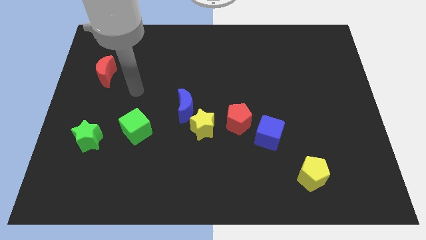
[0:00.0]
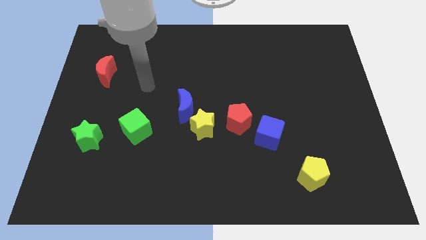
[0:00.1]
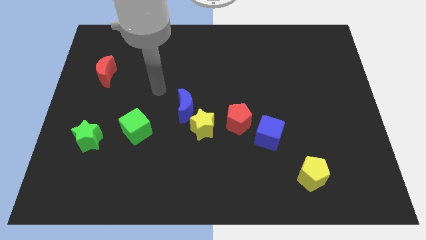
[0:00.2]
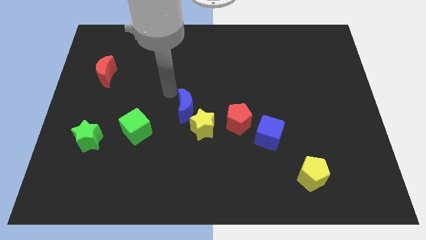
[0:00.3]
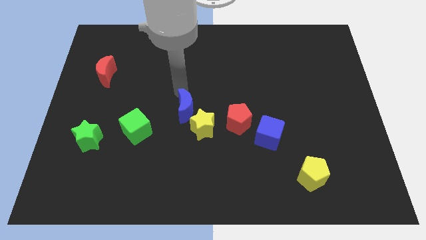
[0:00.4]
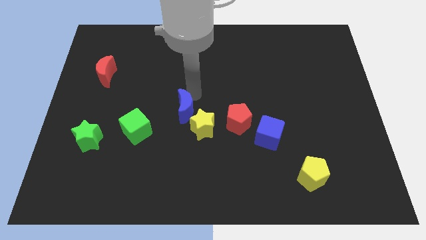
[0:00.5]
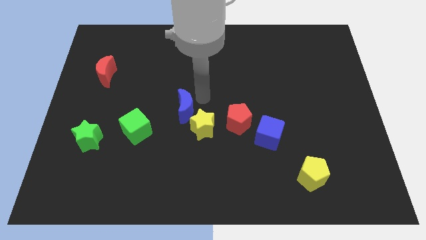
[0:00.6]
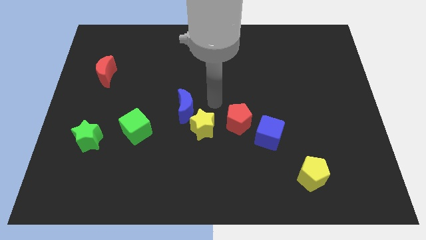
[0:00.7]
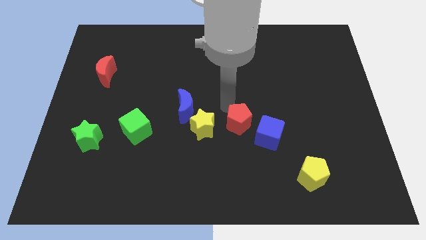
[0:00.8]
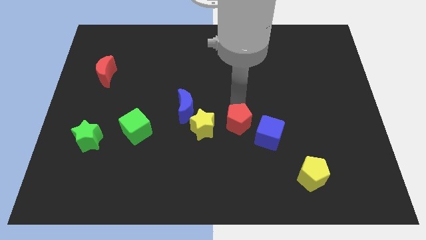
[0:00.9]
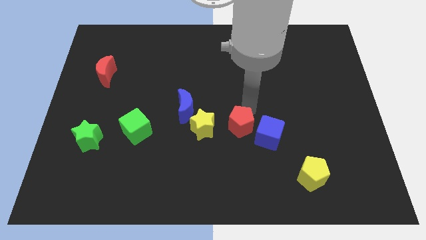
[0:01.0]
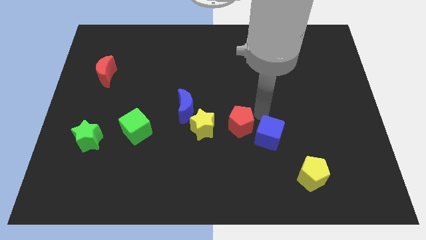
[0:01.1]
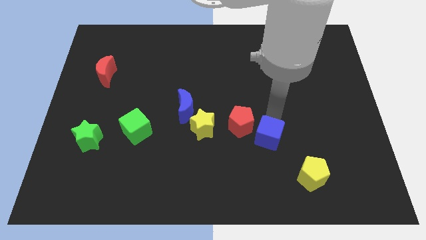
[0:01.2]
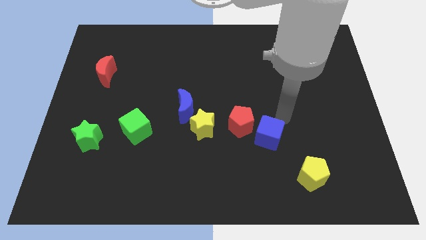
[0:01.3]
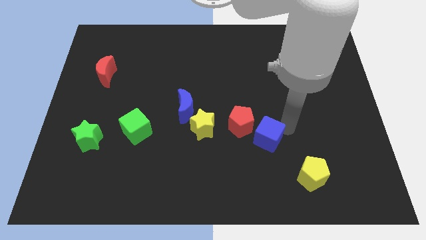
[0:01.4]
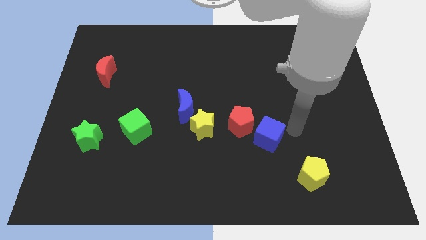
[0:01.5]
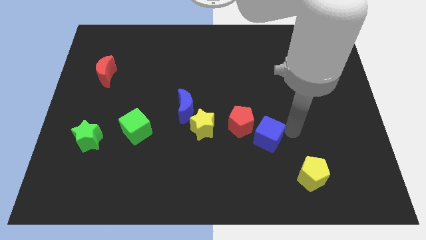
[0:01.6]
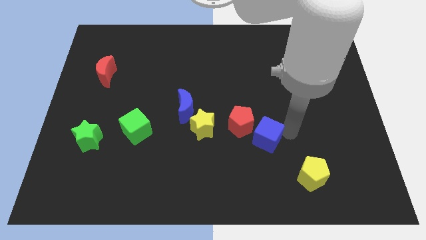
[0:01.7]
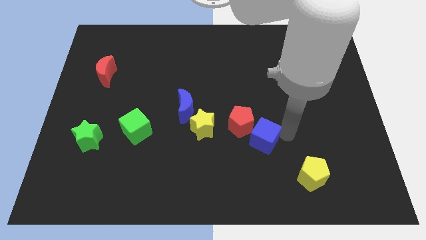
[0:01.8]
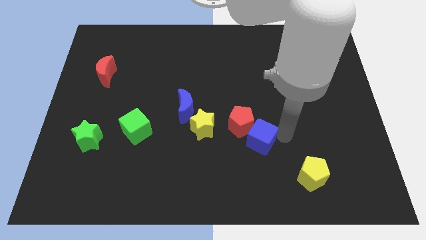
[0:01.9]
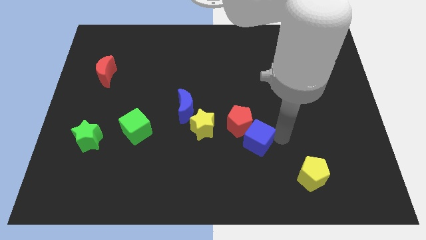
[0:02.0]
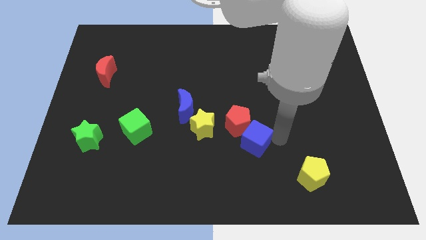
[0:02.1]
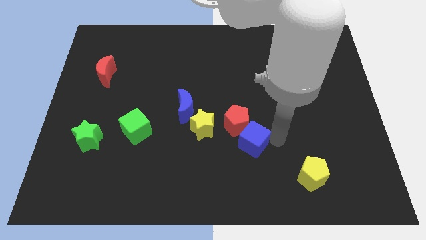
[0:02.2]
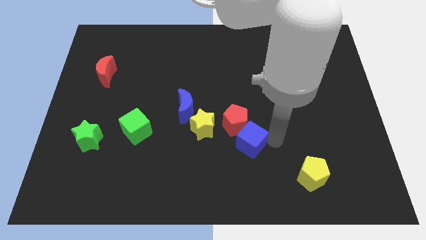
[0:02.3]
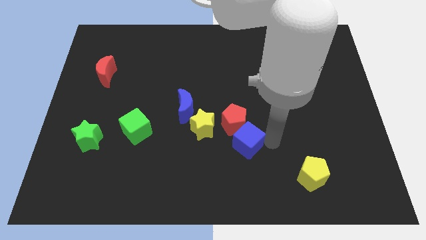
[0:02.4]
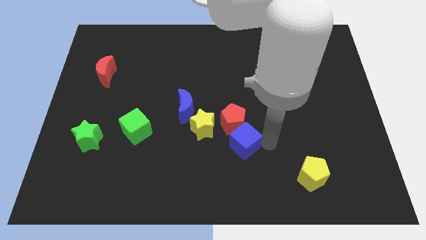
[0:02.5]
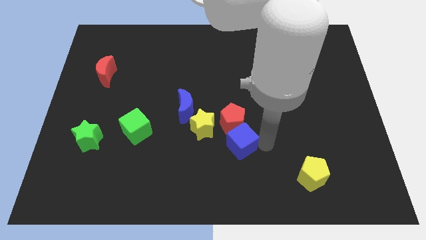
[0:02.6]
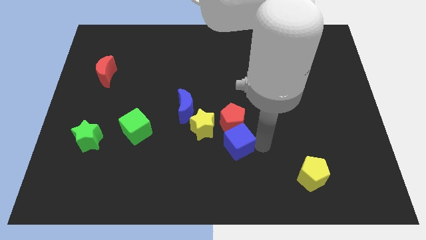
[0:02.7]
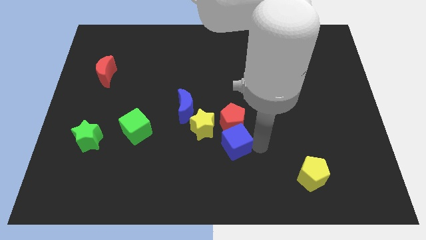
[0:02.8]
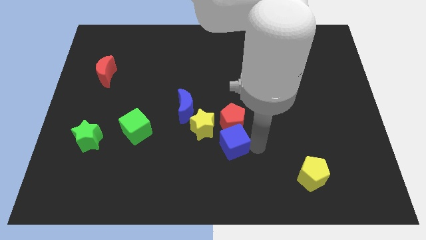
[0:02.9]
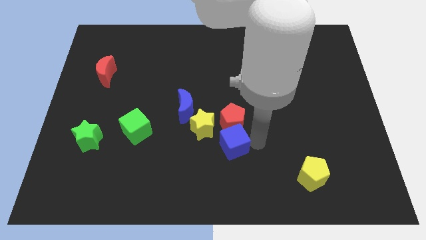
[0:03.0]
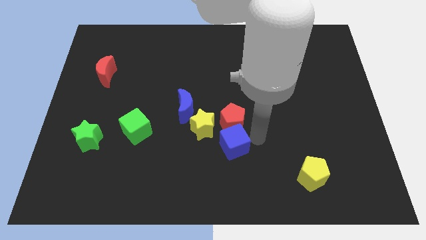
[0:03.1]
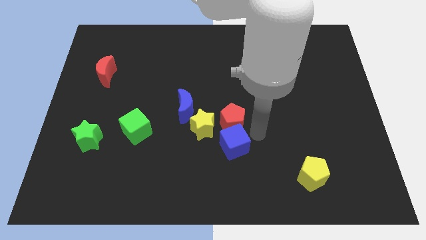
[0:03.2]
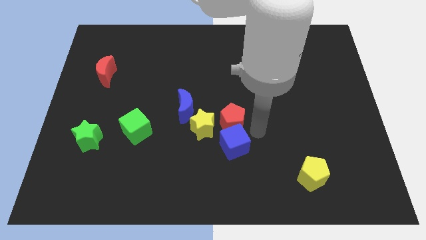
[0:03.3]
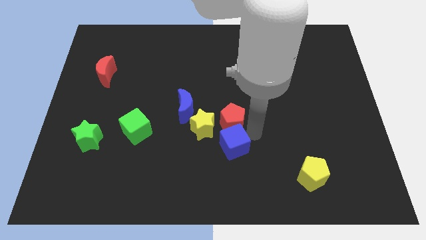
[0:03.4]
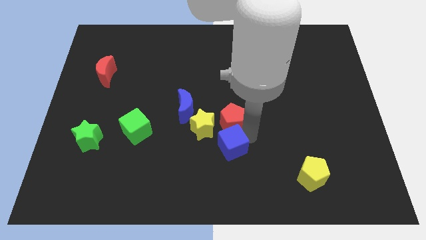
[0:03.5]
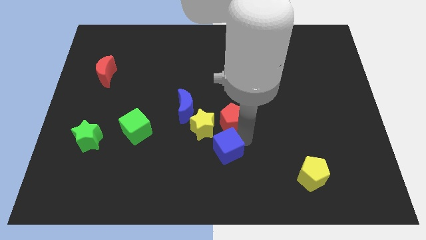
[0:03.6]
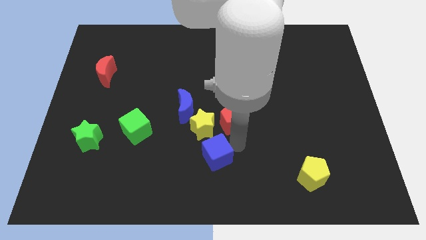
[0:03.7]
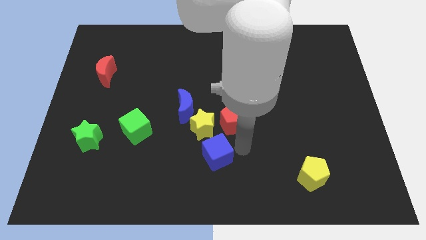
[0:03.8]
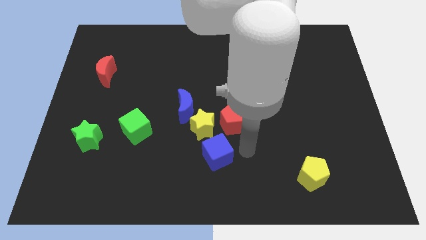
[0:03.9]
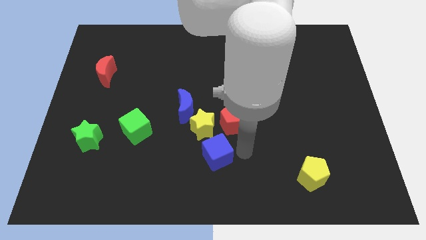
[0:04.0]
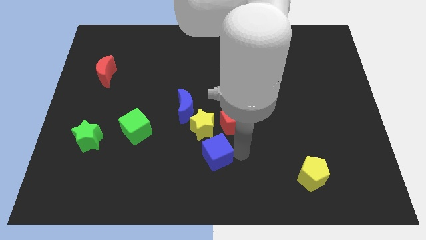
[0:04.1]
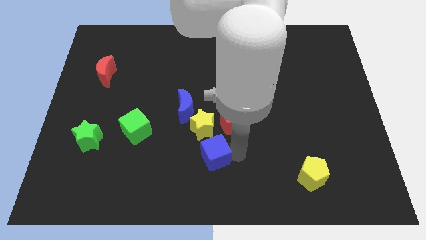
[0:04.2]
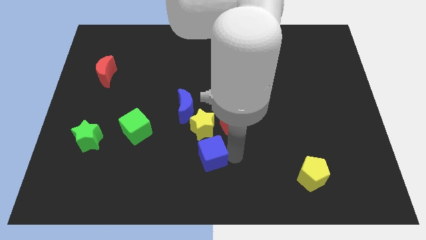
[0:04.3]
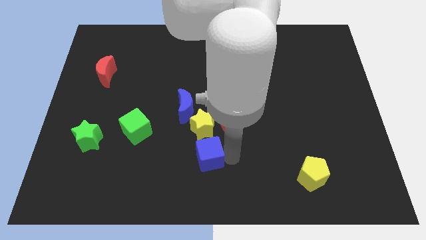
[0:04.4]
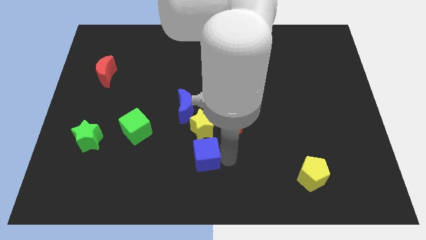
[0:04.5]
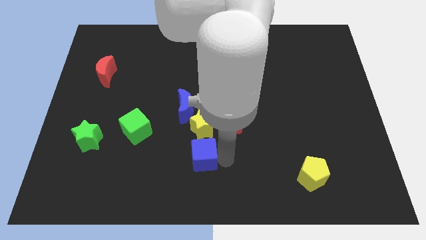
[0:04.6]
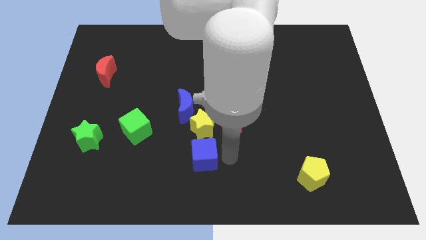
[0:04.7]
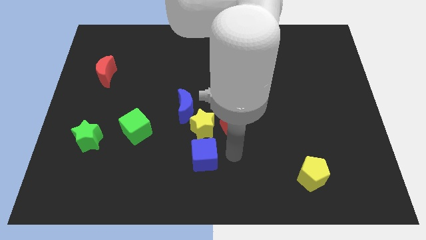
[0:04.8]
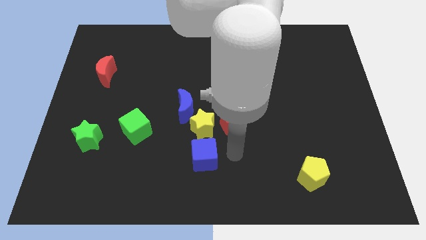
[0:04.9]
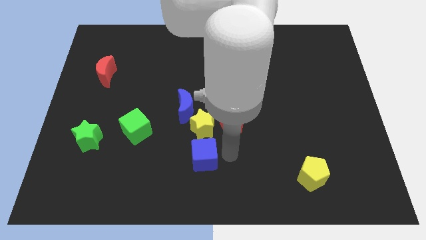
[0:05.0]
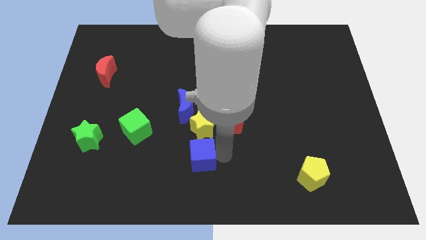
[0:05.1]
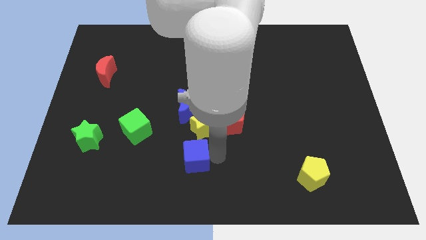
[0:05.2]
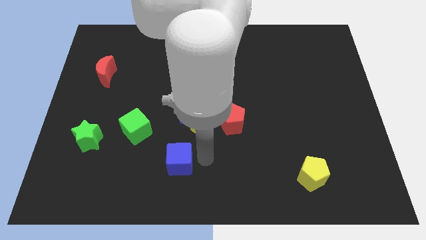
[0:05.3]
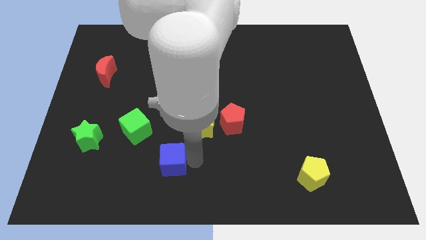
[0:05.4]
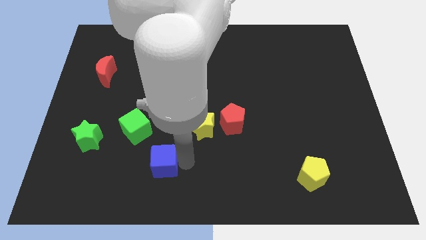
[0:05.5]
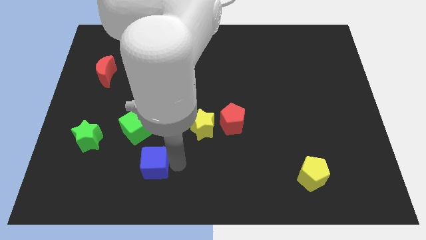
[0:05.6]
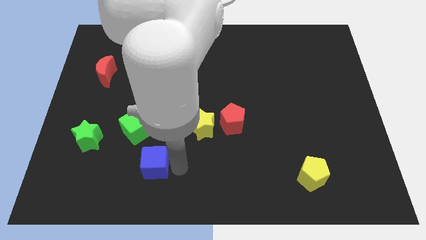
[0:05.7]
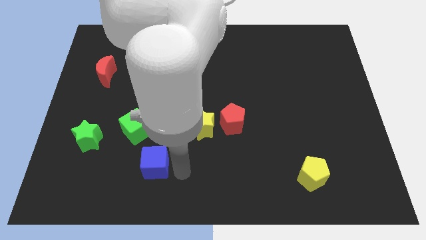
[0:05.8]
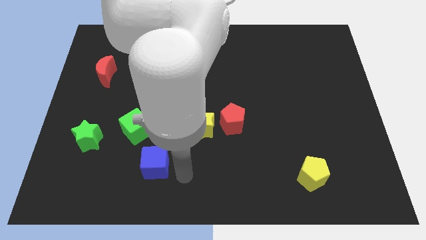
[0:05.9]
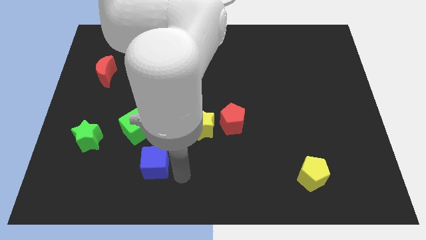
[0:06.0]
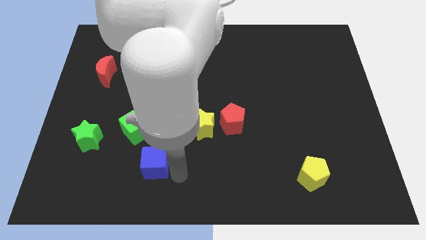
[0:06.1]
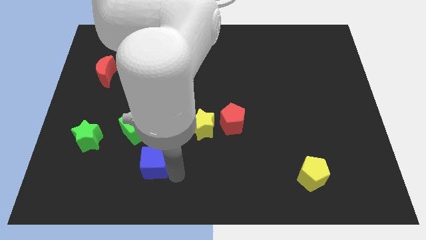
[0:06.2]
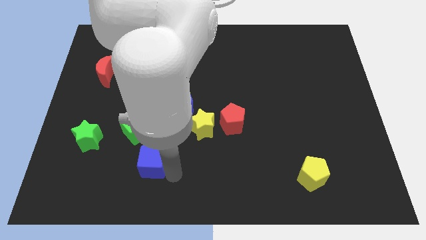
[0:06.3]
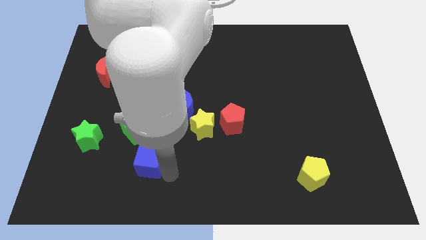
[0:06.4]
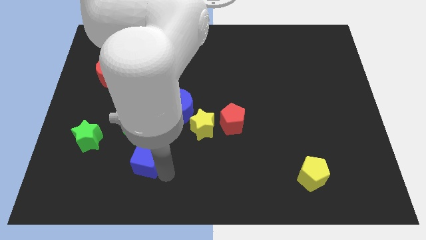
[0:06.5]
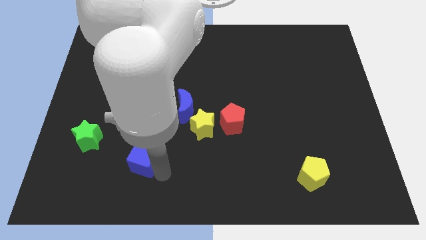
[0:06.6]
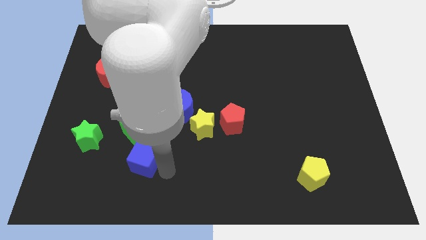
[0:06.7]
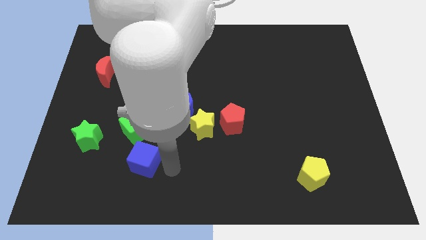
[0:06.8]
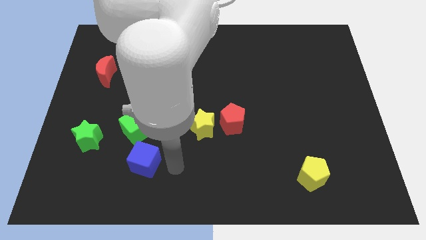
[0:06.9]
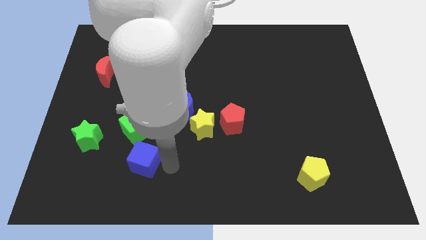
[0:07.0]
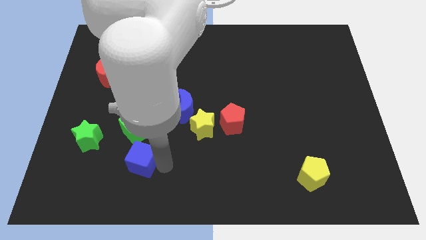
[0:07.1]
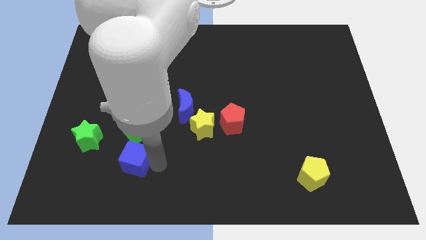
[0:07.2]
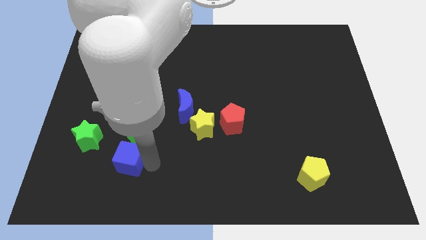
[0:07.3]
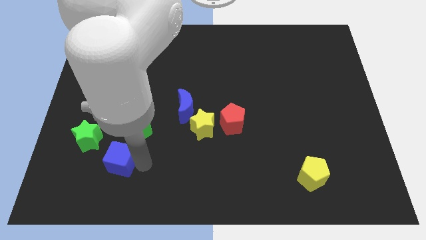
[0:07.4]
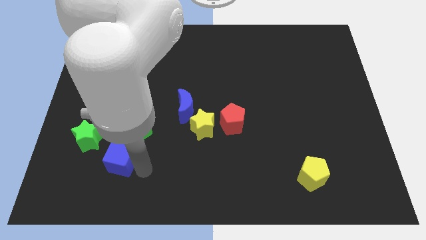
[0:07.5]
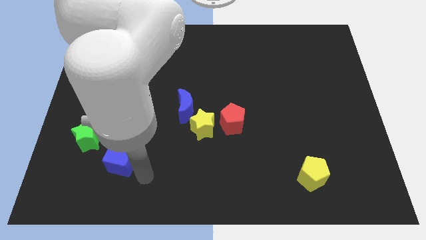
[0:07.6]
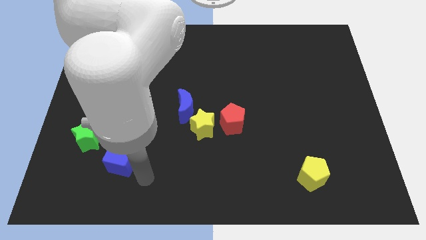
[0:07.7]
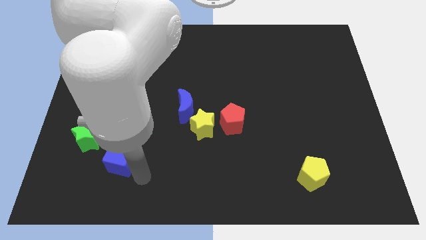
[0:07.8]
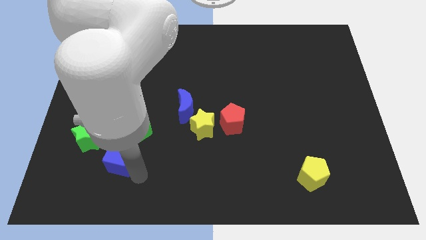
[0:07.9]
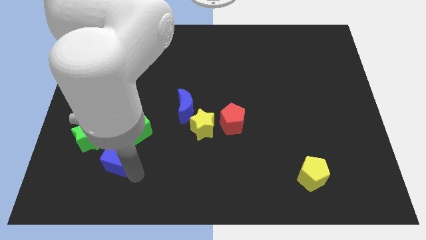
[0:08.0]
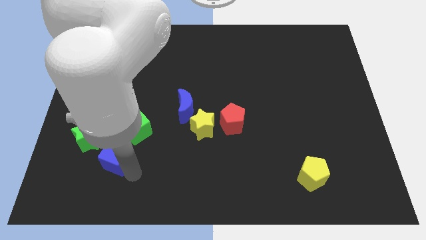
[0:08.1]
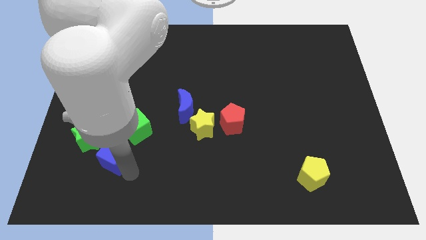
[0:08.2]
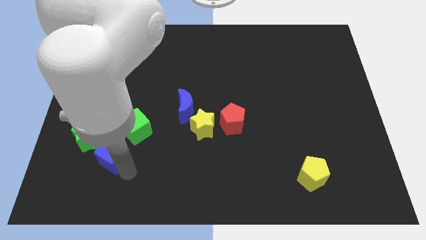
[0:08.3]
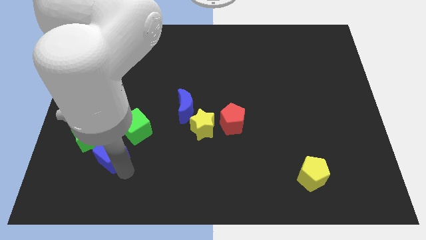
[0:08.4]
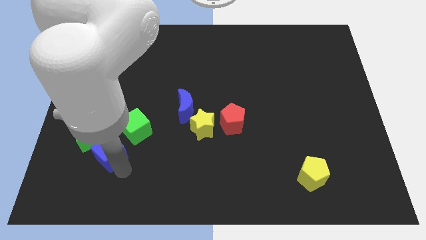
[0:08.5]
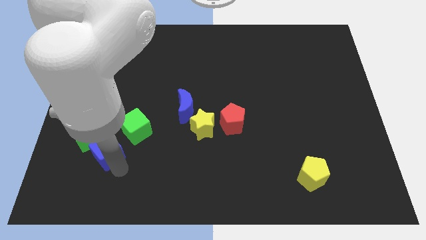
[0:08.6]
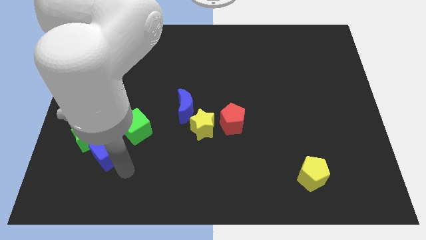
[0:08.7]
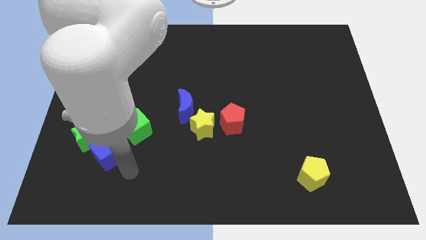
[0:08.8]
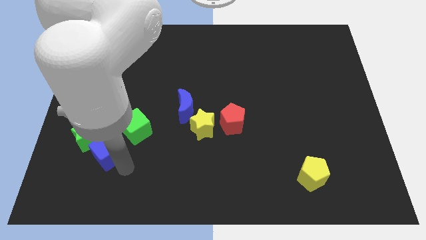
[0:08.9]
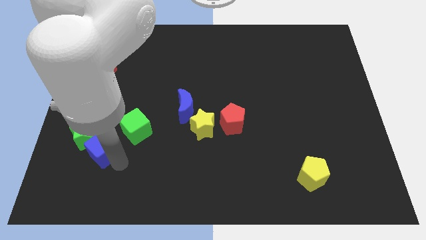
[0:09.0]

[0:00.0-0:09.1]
slide the blue cube close to the green star
